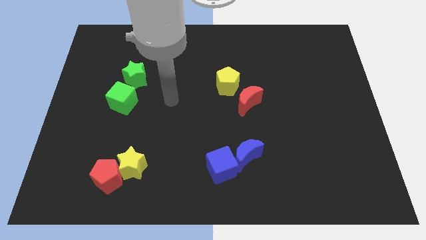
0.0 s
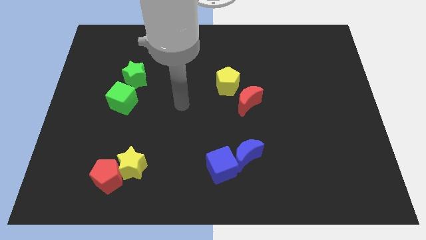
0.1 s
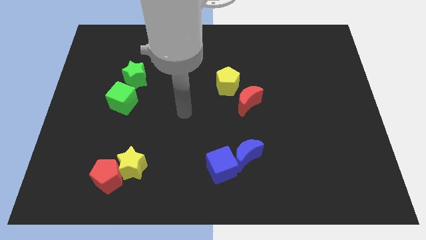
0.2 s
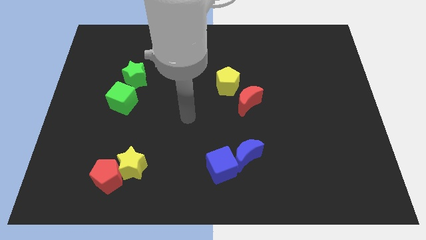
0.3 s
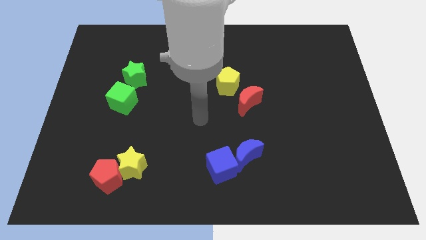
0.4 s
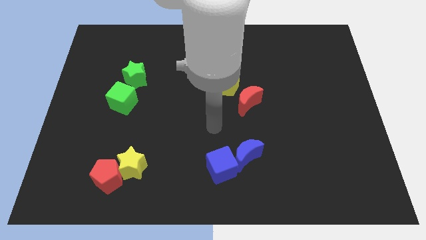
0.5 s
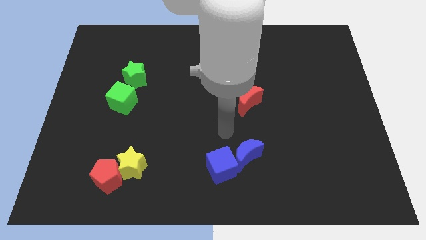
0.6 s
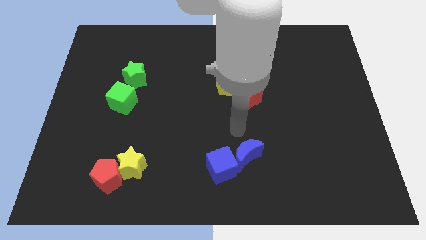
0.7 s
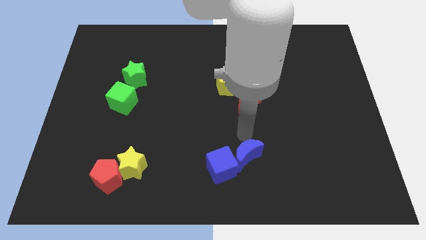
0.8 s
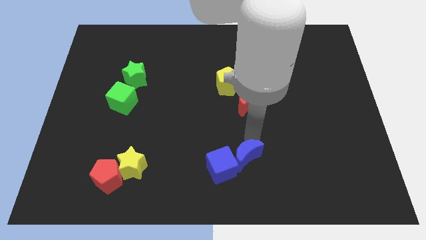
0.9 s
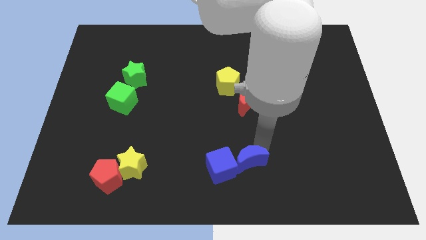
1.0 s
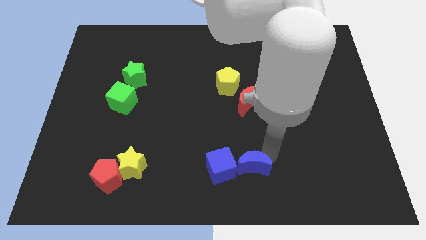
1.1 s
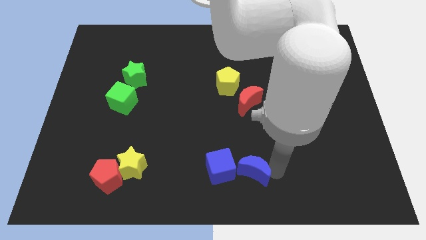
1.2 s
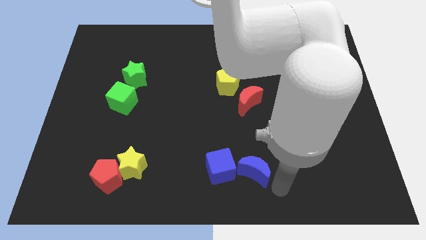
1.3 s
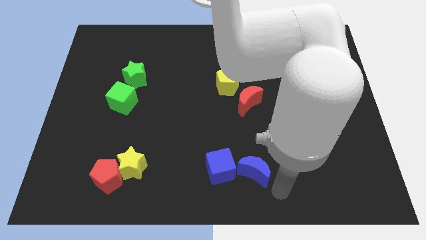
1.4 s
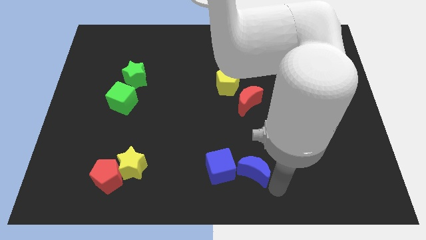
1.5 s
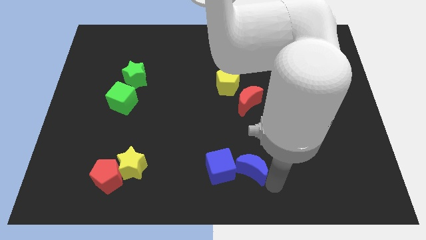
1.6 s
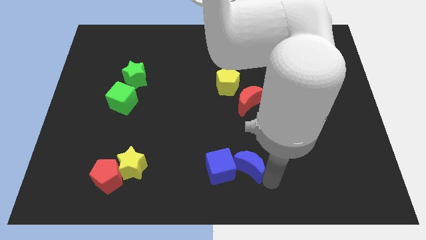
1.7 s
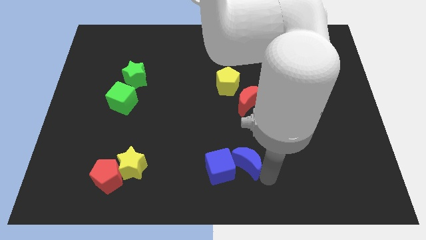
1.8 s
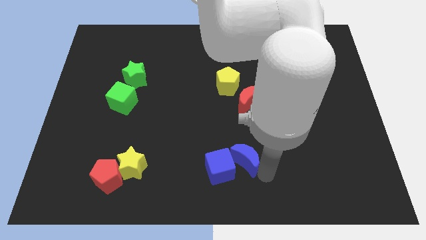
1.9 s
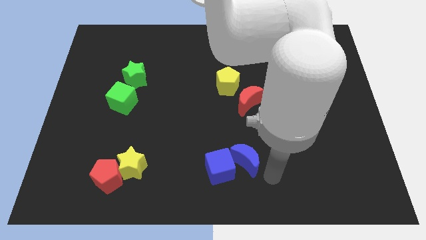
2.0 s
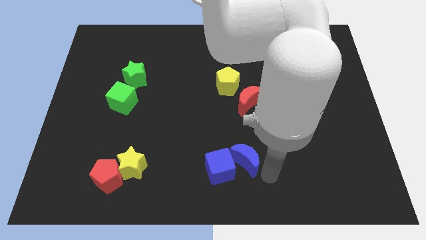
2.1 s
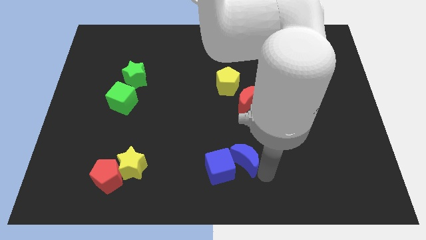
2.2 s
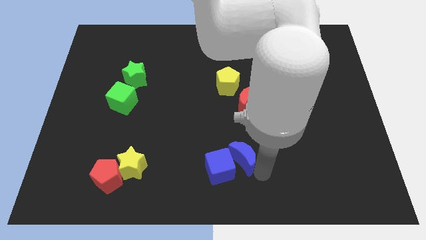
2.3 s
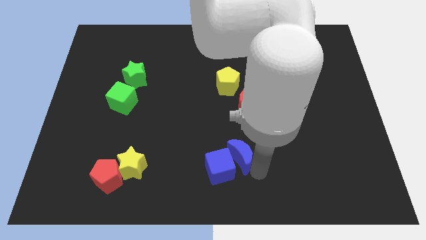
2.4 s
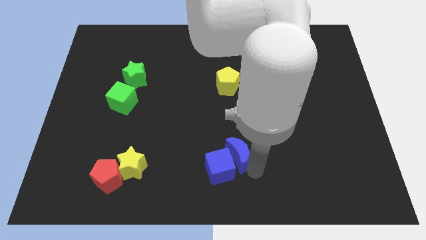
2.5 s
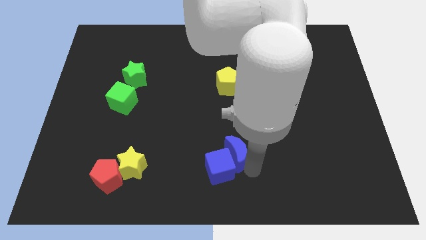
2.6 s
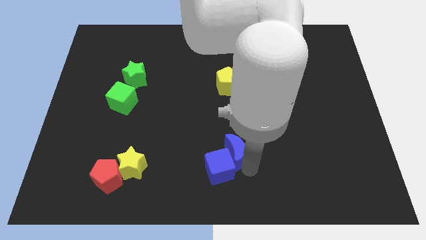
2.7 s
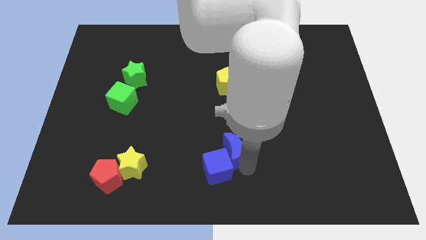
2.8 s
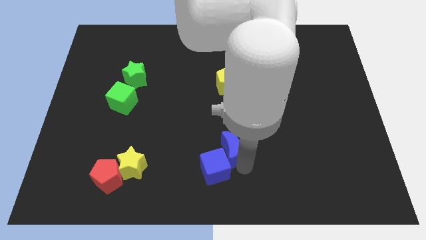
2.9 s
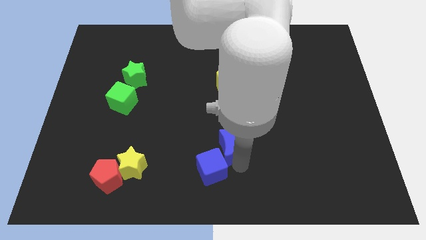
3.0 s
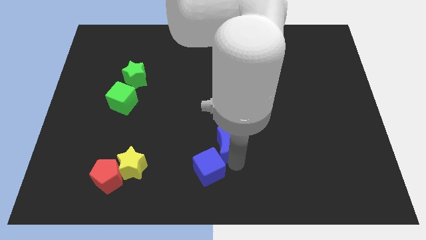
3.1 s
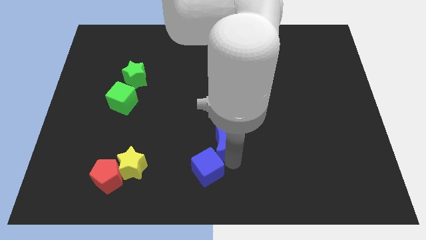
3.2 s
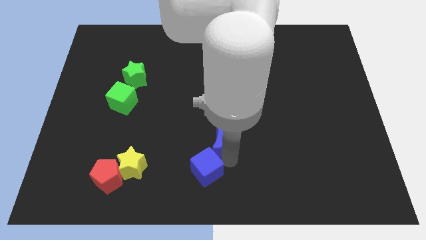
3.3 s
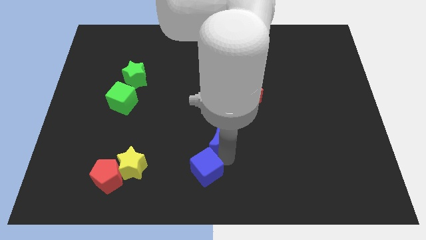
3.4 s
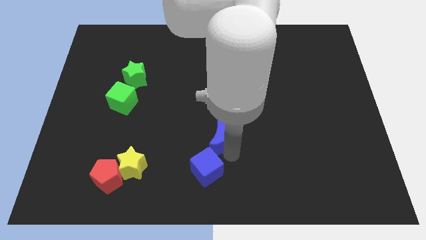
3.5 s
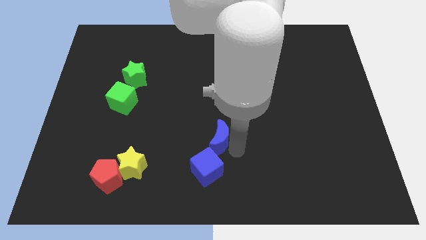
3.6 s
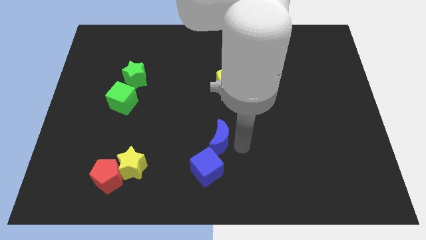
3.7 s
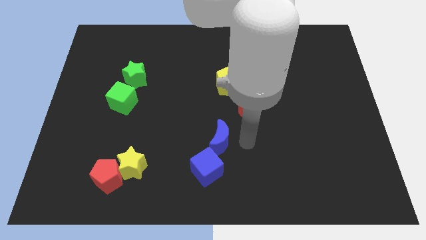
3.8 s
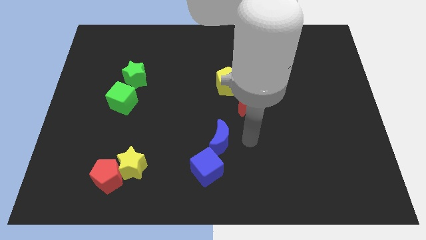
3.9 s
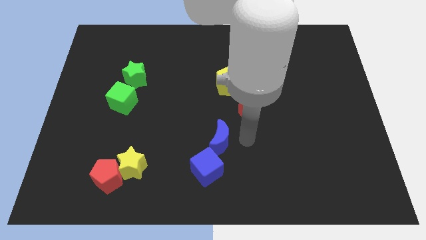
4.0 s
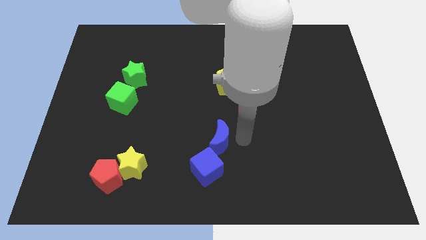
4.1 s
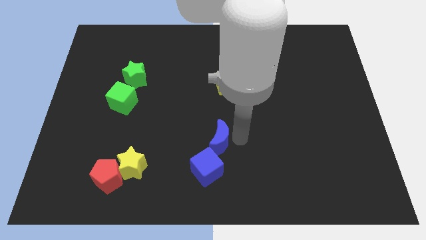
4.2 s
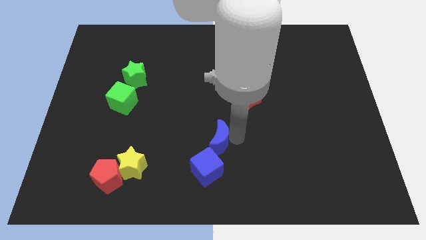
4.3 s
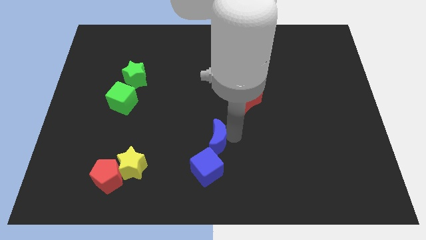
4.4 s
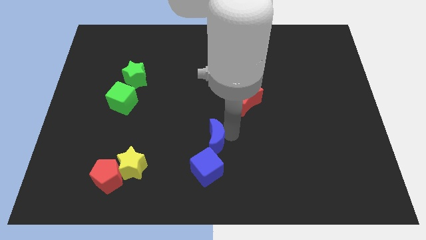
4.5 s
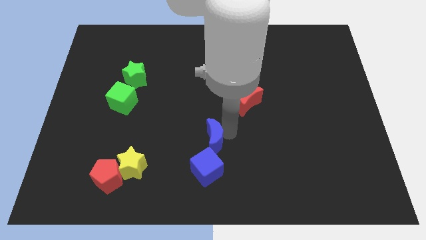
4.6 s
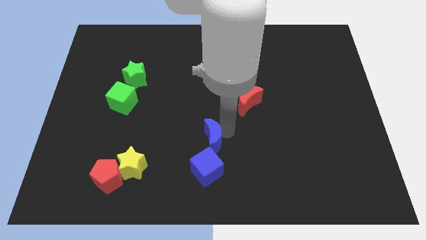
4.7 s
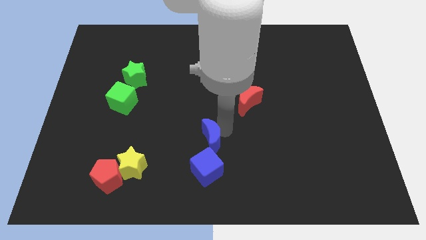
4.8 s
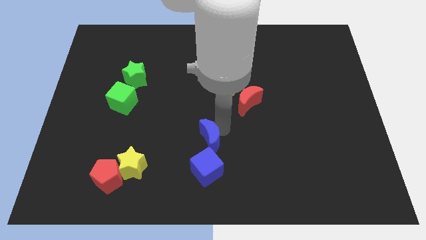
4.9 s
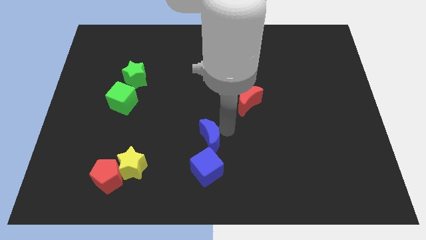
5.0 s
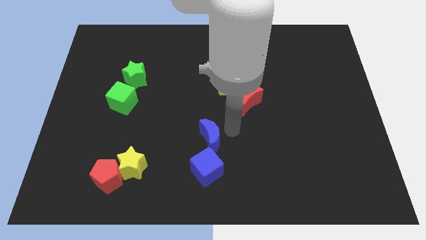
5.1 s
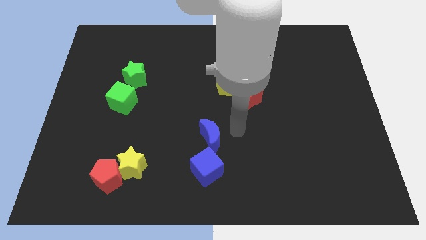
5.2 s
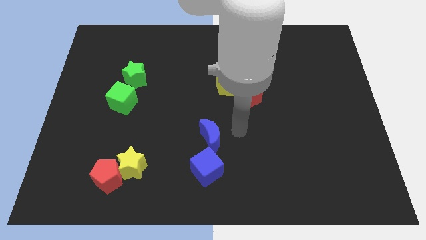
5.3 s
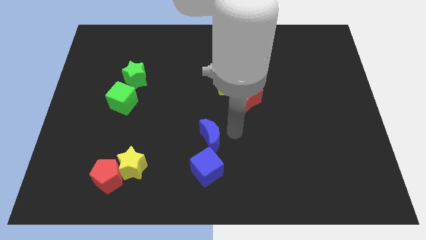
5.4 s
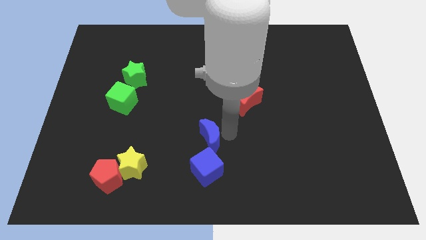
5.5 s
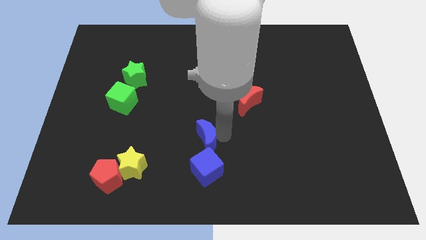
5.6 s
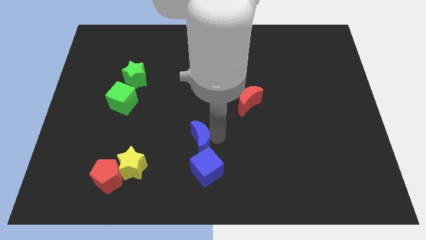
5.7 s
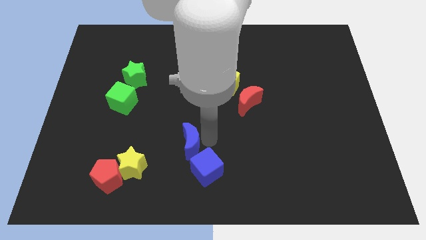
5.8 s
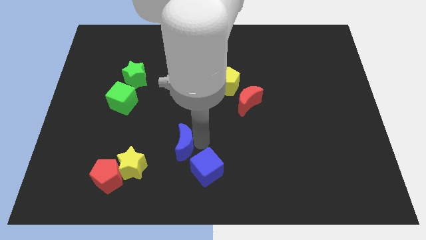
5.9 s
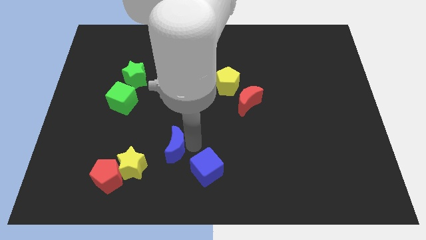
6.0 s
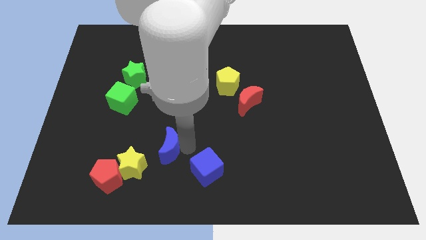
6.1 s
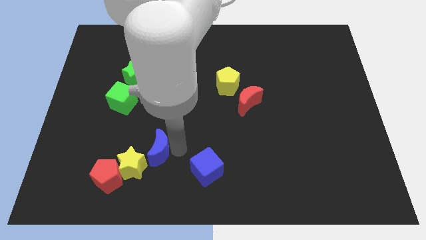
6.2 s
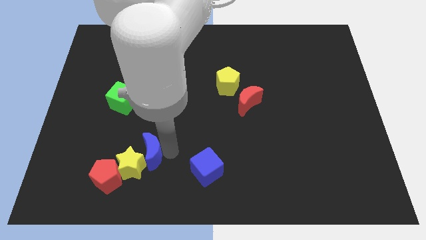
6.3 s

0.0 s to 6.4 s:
slide the blue moon left

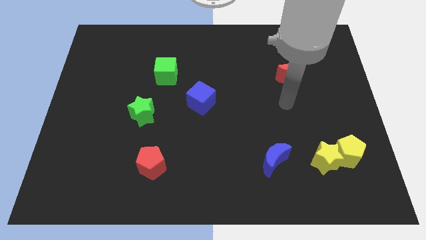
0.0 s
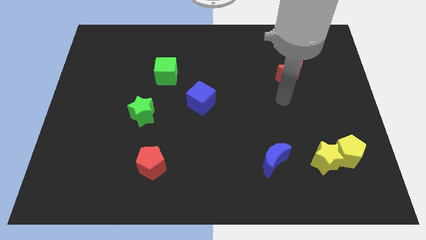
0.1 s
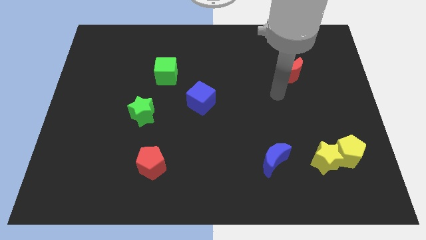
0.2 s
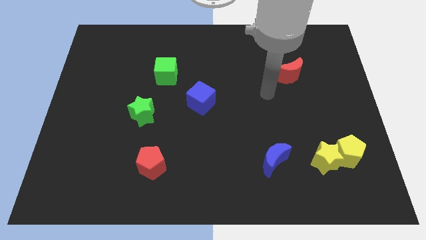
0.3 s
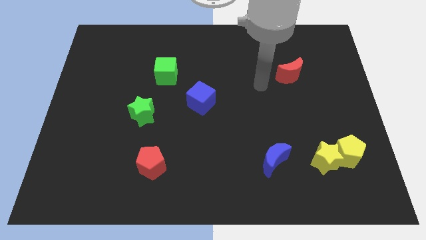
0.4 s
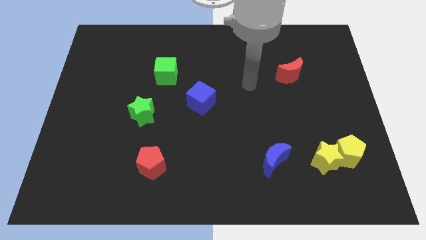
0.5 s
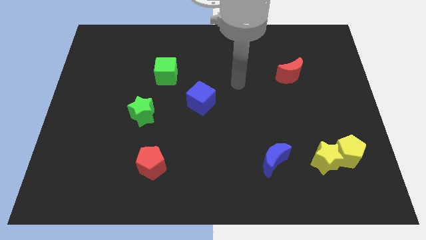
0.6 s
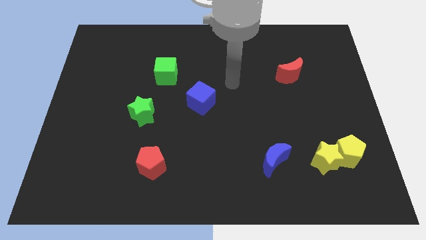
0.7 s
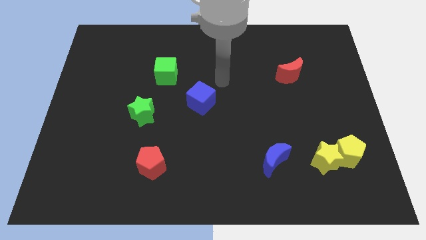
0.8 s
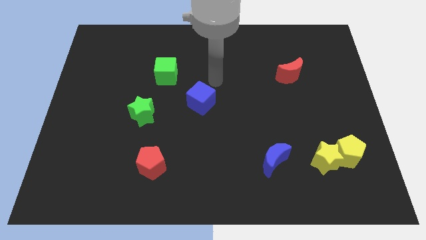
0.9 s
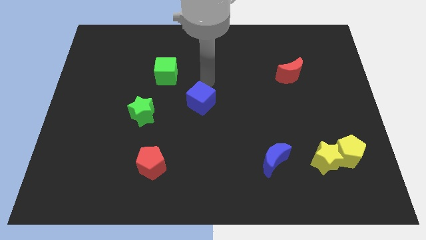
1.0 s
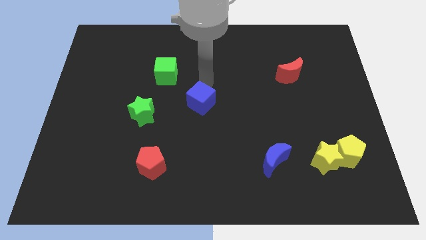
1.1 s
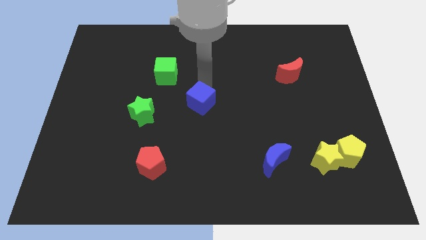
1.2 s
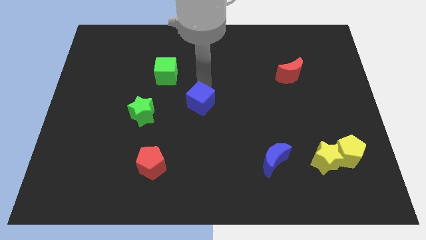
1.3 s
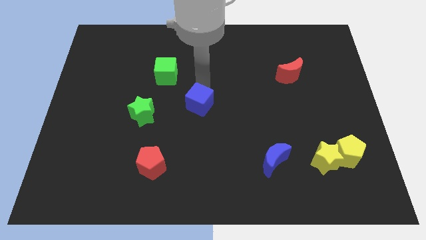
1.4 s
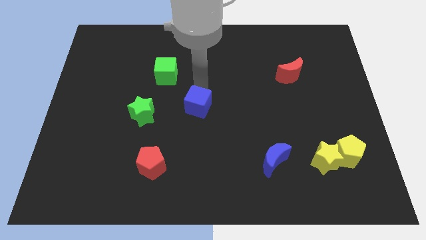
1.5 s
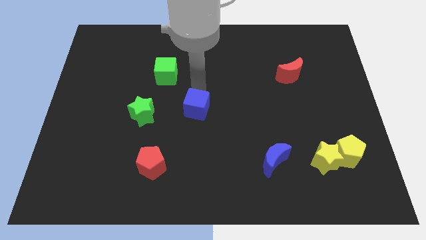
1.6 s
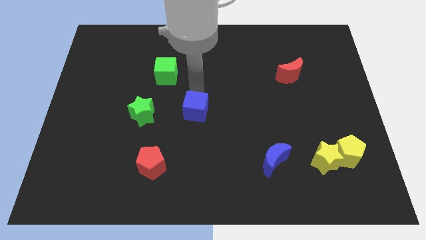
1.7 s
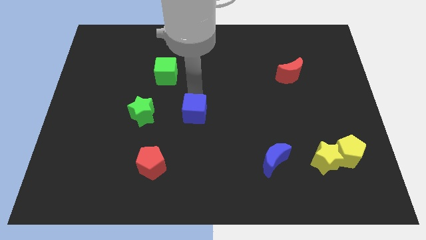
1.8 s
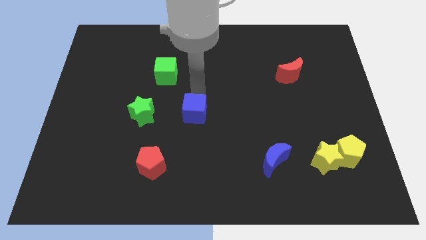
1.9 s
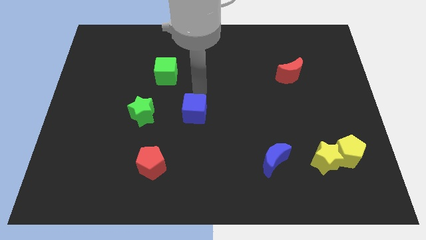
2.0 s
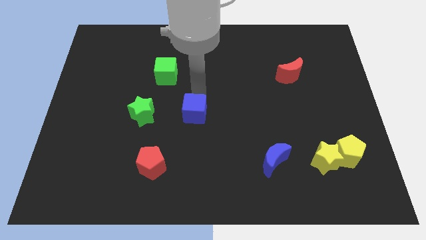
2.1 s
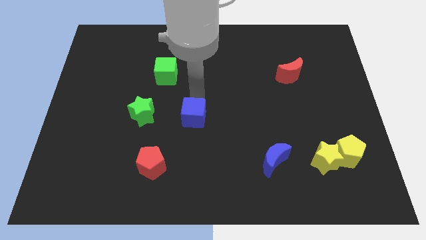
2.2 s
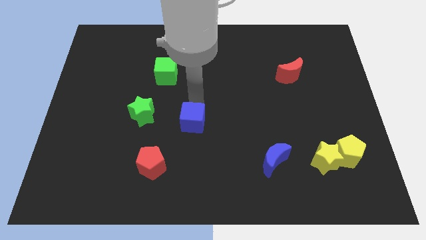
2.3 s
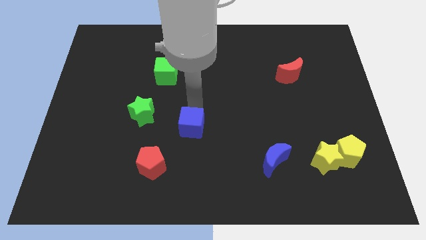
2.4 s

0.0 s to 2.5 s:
slightly move the blue cube downwards
